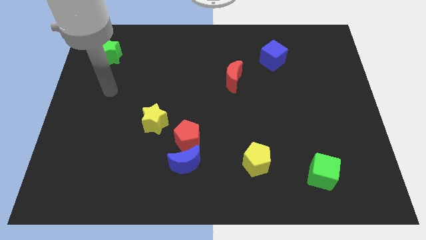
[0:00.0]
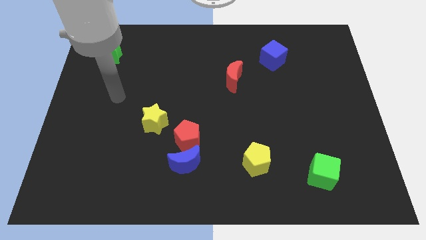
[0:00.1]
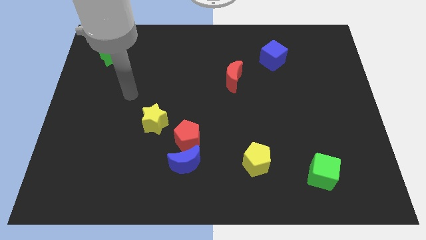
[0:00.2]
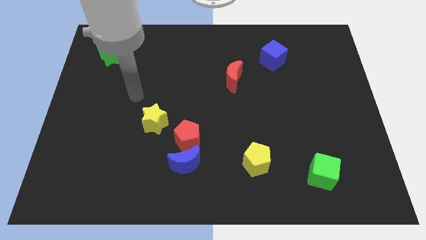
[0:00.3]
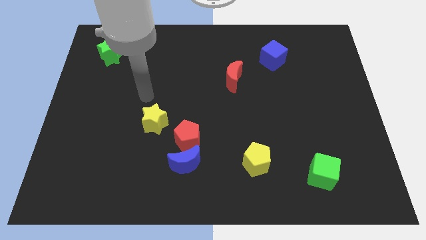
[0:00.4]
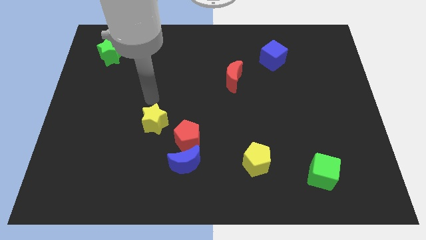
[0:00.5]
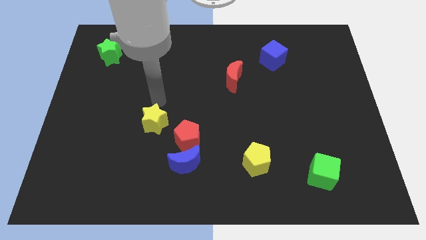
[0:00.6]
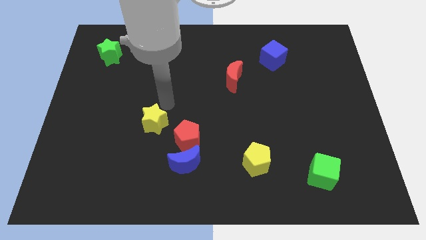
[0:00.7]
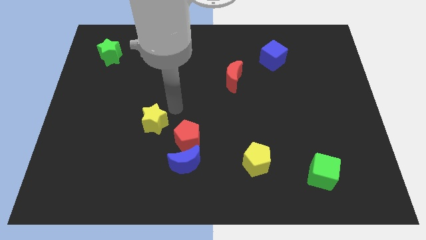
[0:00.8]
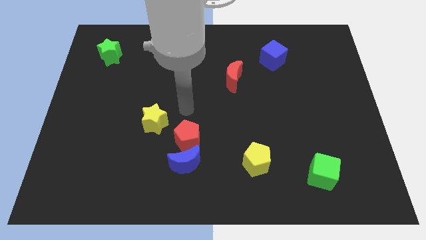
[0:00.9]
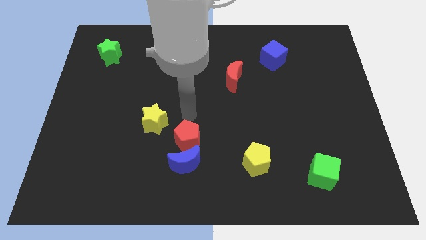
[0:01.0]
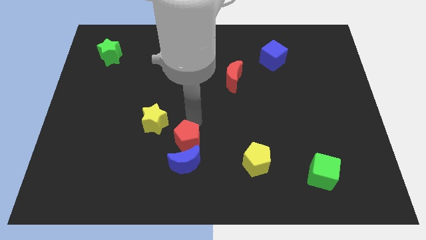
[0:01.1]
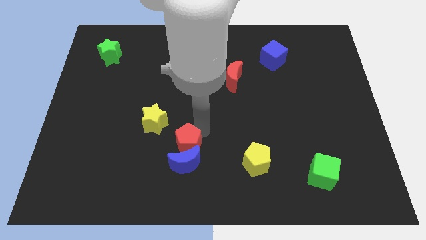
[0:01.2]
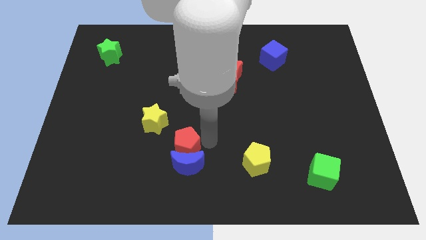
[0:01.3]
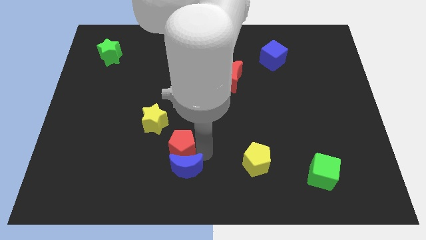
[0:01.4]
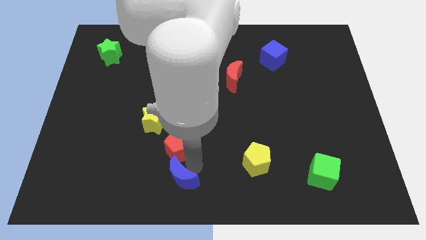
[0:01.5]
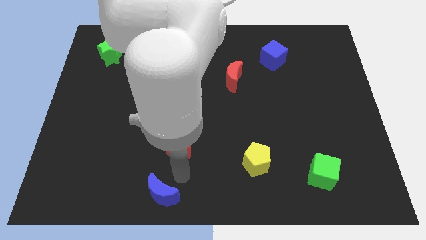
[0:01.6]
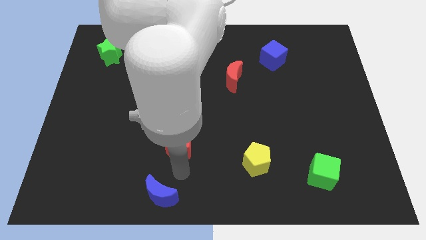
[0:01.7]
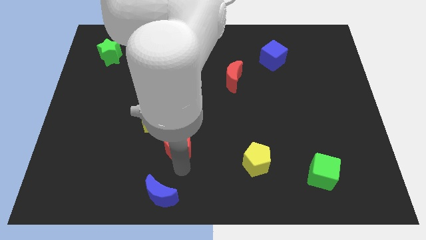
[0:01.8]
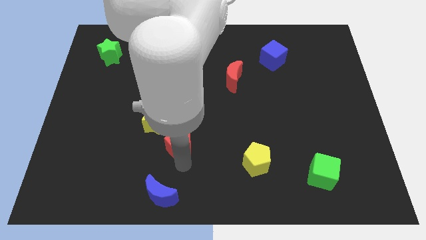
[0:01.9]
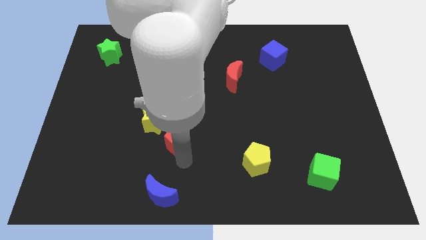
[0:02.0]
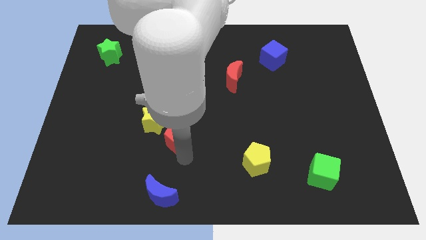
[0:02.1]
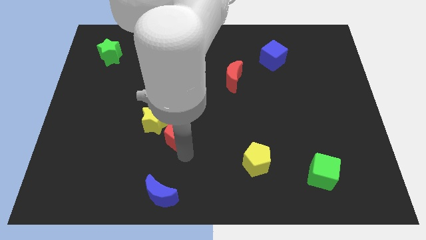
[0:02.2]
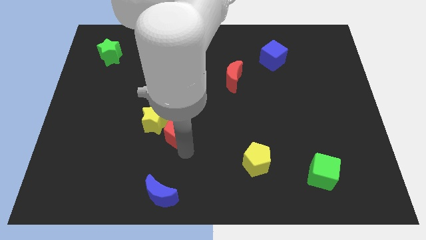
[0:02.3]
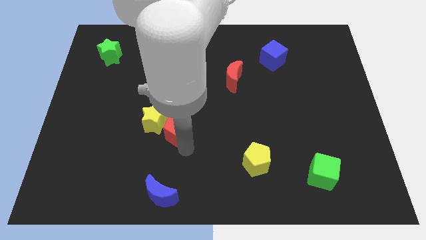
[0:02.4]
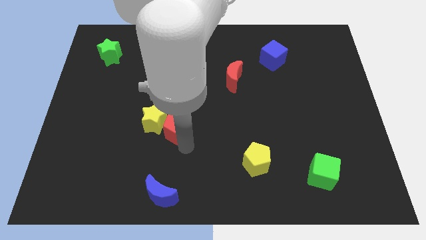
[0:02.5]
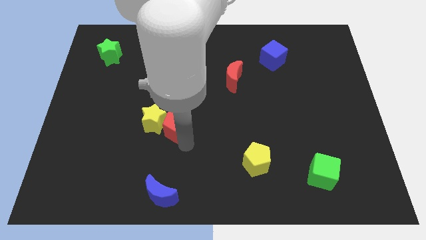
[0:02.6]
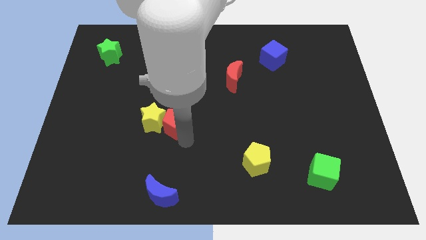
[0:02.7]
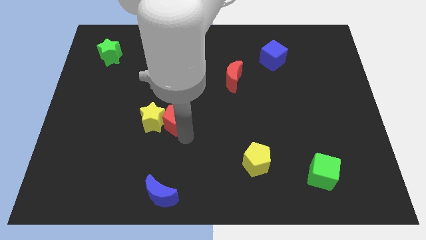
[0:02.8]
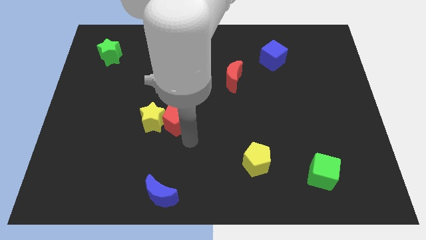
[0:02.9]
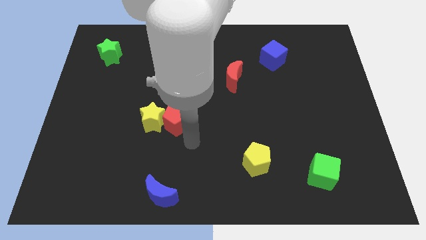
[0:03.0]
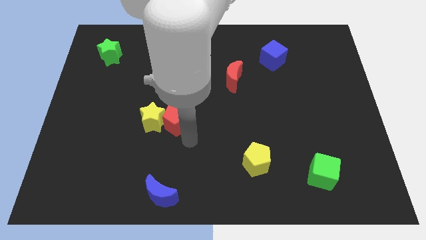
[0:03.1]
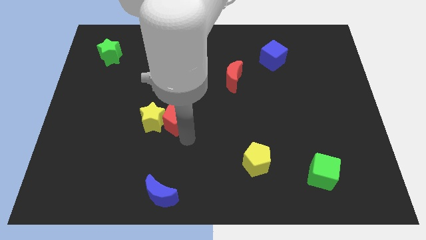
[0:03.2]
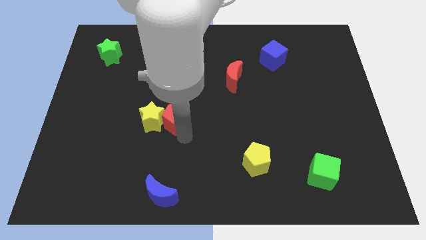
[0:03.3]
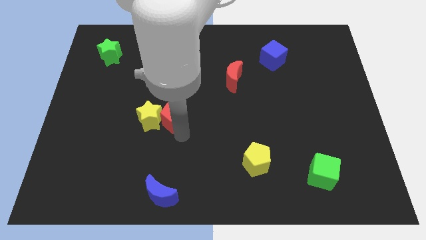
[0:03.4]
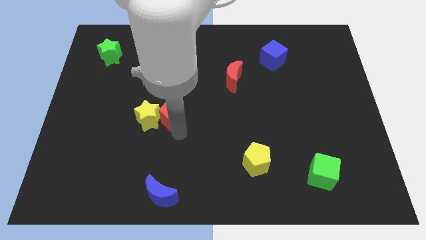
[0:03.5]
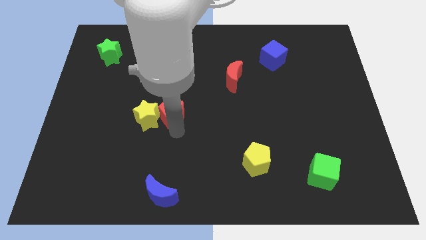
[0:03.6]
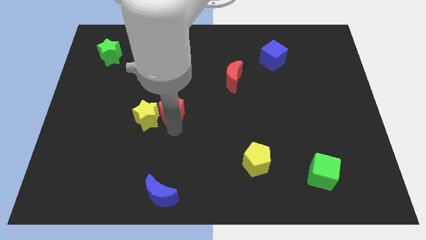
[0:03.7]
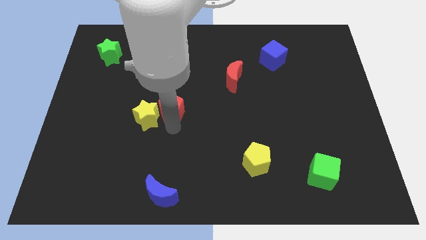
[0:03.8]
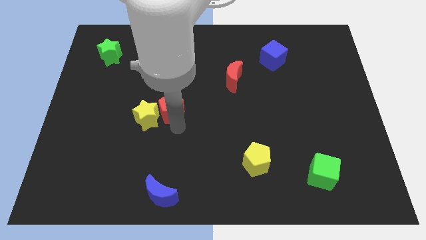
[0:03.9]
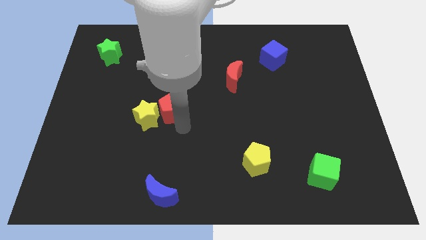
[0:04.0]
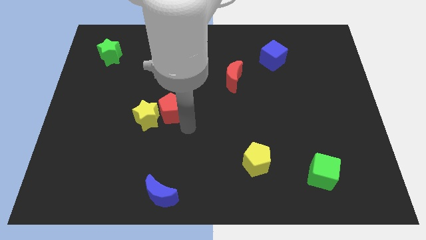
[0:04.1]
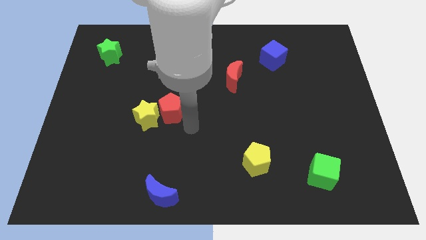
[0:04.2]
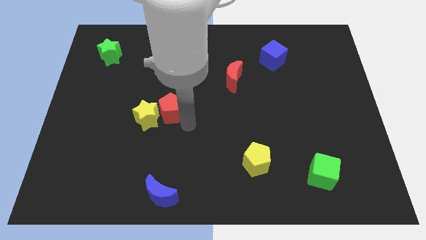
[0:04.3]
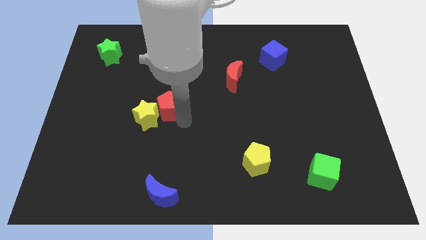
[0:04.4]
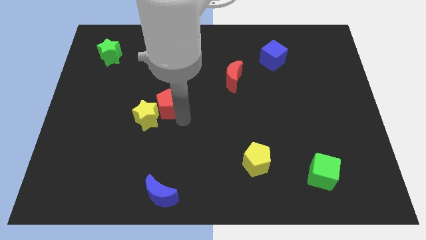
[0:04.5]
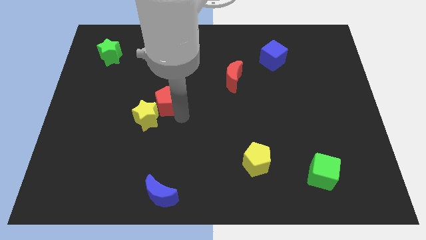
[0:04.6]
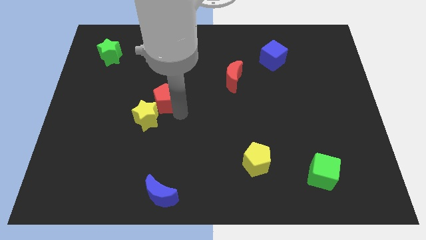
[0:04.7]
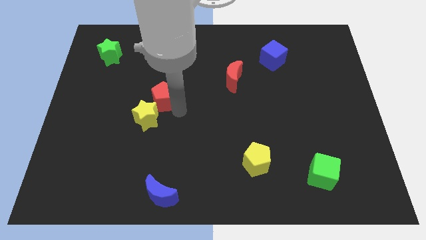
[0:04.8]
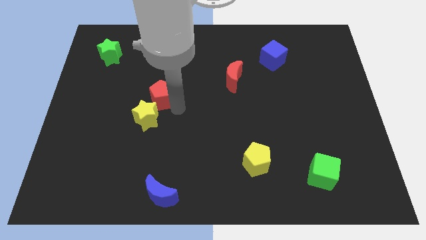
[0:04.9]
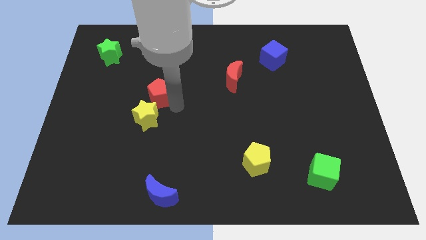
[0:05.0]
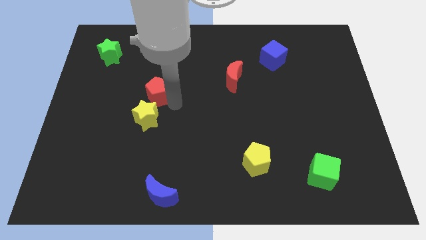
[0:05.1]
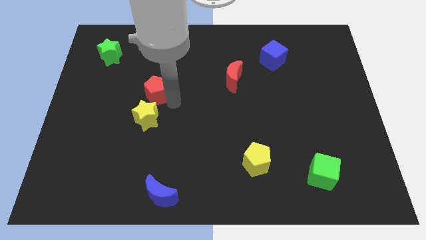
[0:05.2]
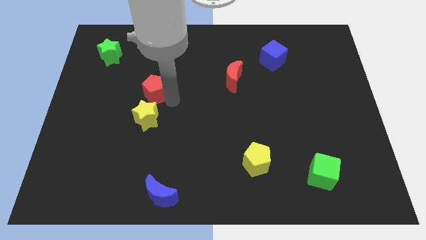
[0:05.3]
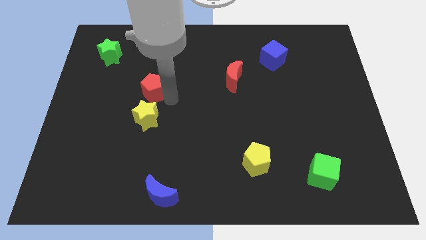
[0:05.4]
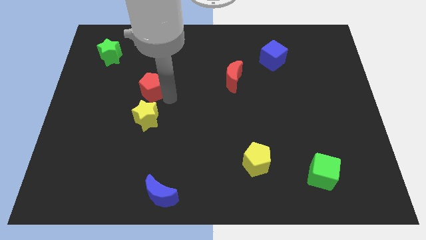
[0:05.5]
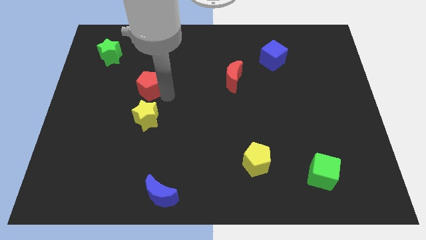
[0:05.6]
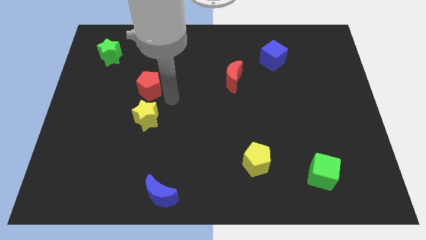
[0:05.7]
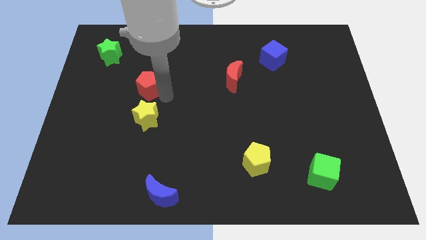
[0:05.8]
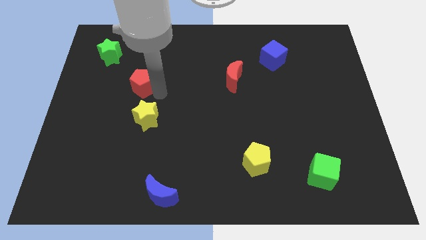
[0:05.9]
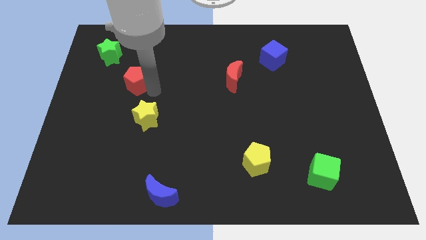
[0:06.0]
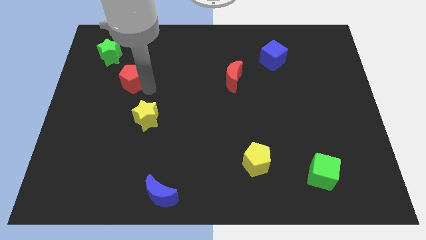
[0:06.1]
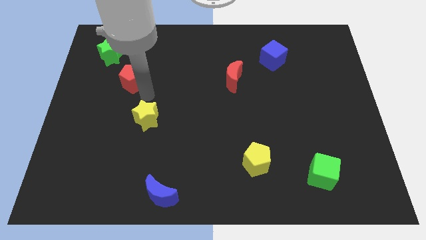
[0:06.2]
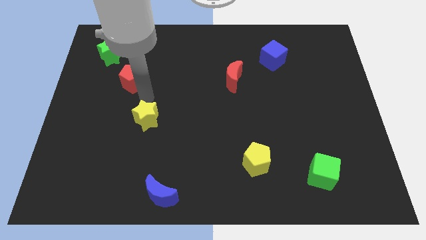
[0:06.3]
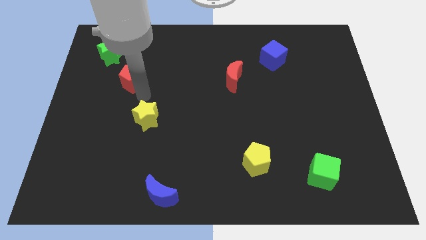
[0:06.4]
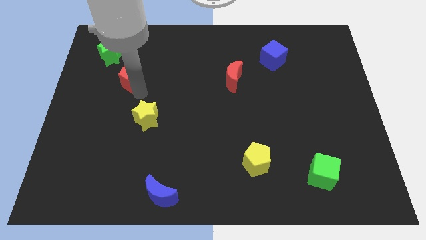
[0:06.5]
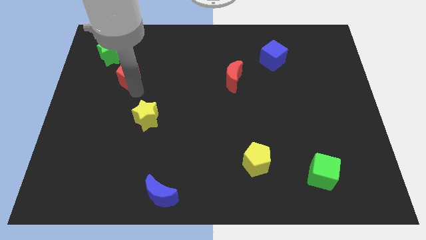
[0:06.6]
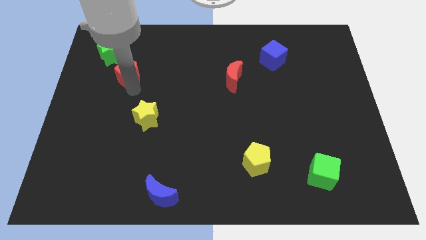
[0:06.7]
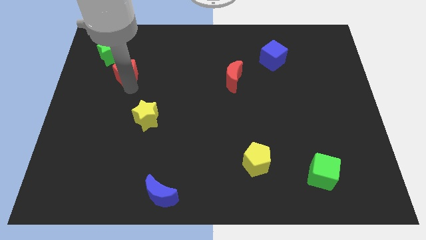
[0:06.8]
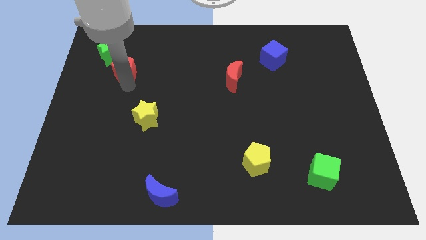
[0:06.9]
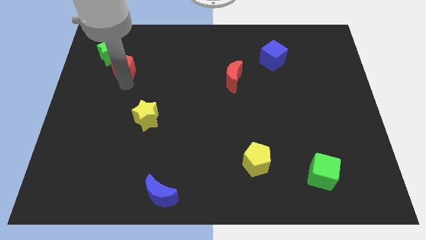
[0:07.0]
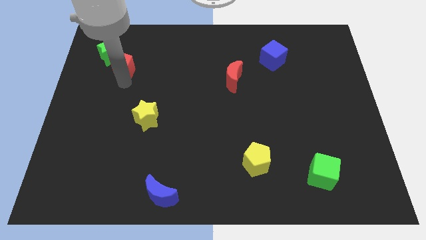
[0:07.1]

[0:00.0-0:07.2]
slide the red pentagon to the green star
